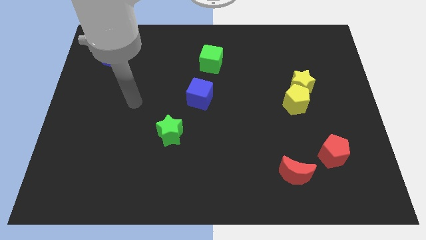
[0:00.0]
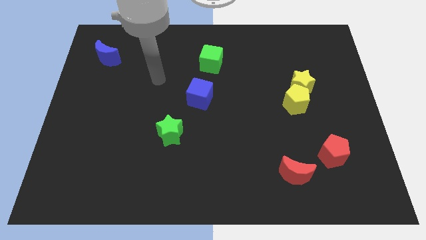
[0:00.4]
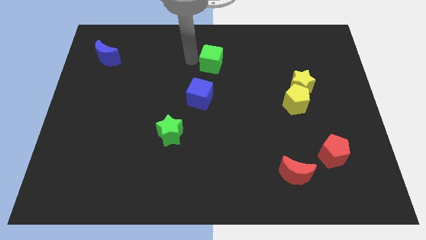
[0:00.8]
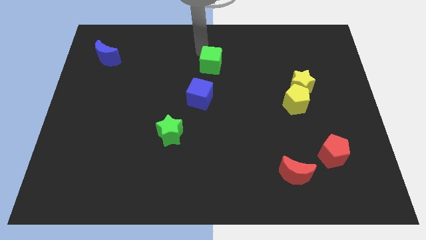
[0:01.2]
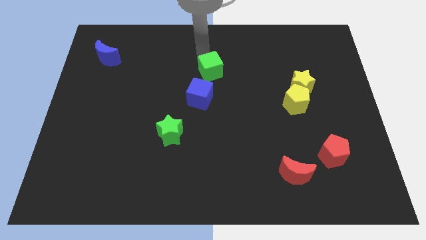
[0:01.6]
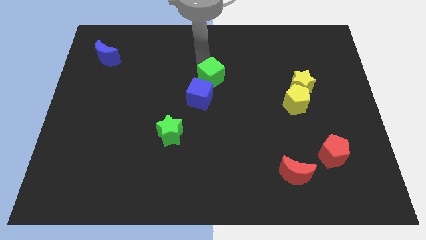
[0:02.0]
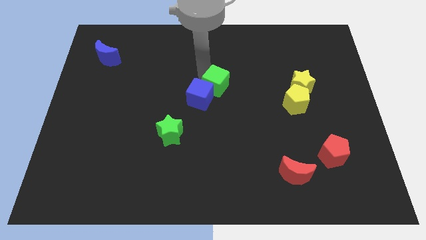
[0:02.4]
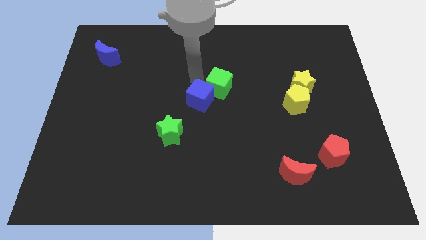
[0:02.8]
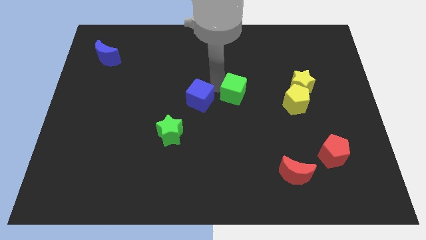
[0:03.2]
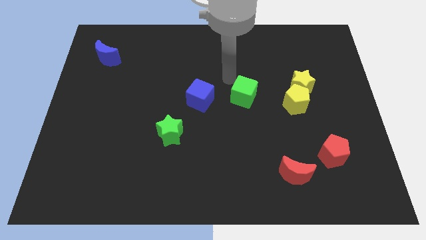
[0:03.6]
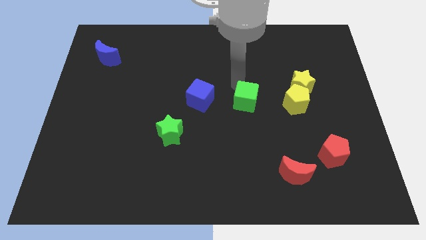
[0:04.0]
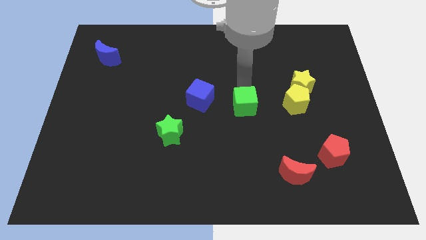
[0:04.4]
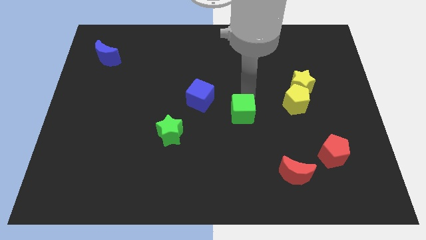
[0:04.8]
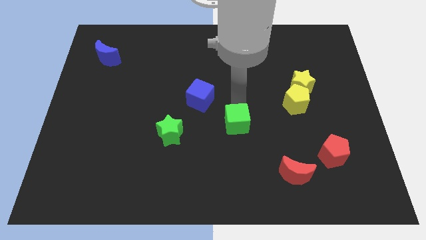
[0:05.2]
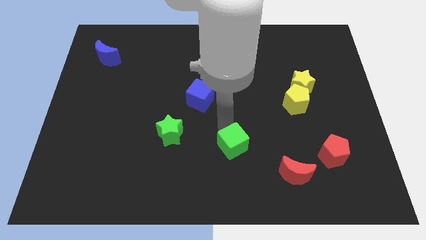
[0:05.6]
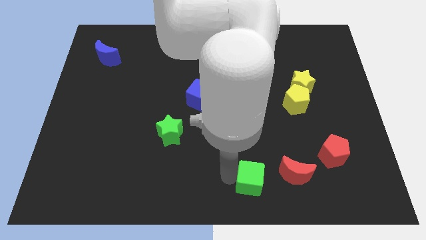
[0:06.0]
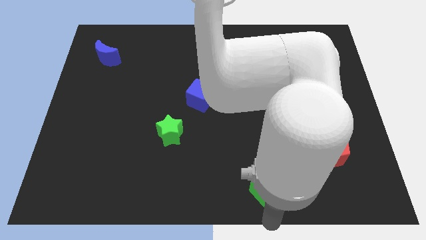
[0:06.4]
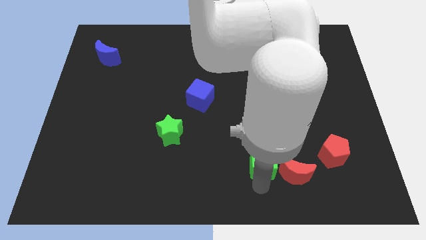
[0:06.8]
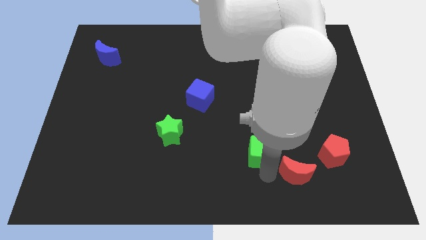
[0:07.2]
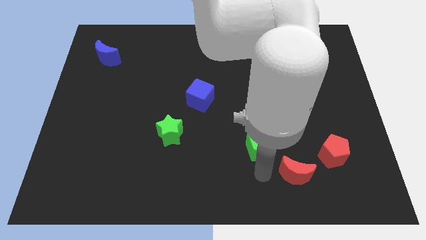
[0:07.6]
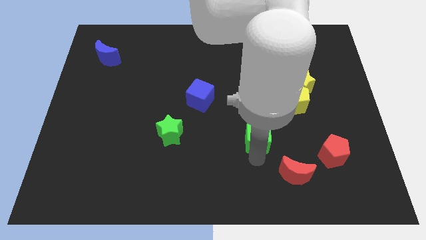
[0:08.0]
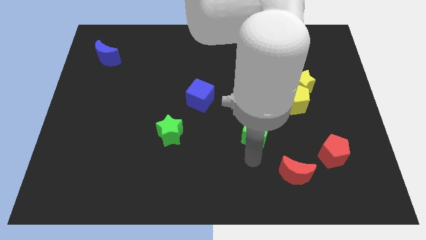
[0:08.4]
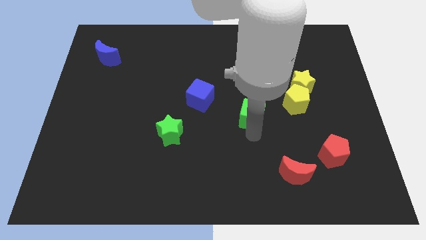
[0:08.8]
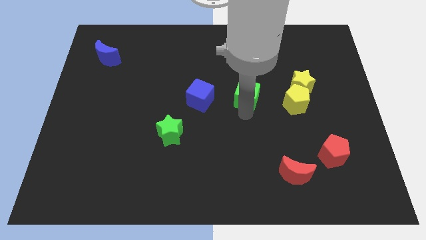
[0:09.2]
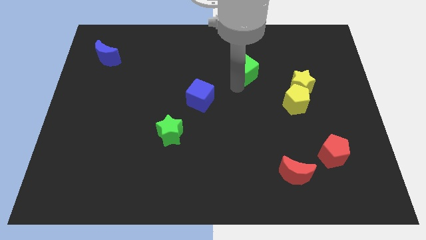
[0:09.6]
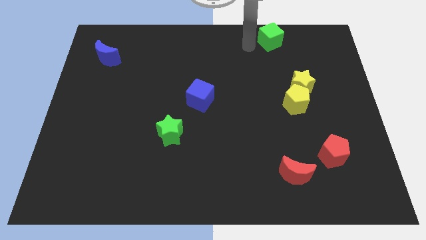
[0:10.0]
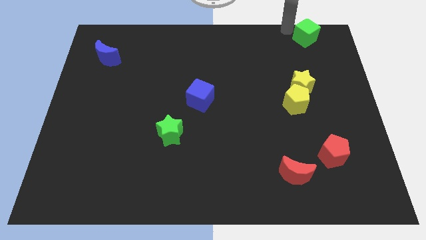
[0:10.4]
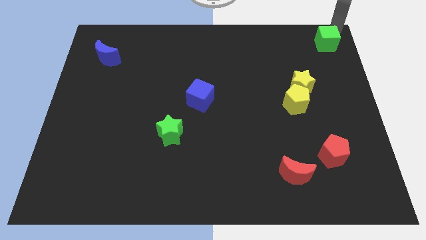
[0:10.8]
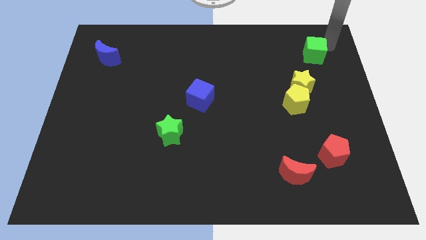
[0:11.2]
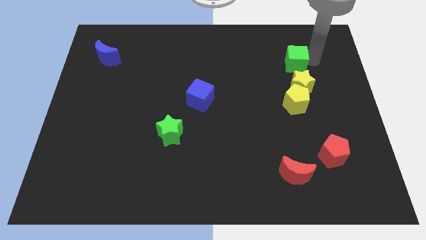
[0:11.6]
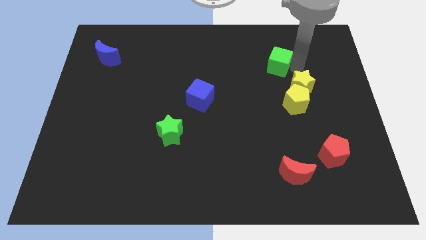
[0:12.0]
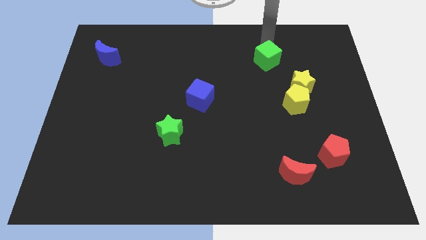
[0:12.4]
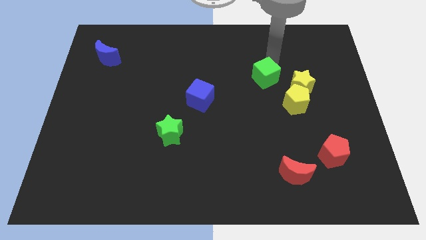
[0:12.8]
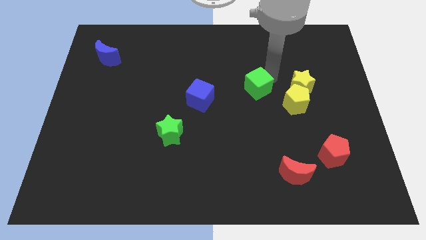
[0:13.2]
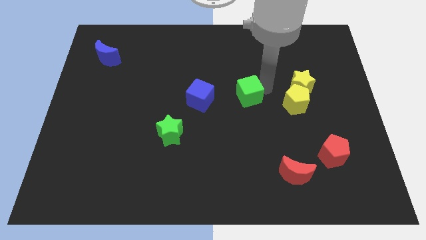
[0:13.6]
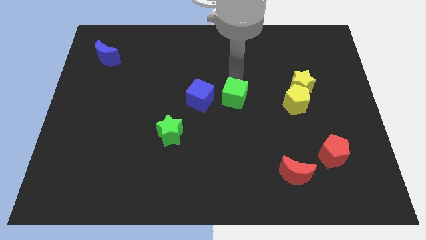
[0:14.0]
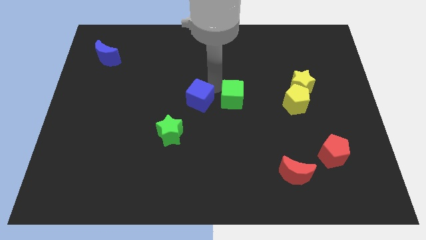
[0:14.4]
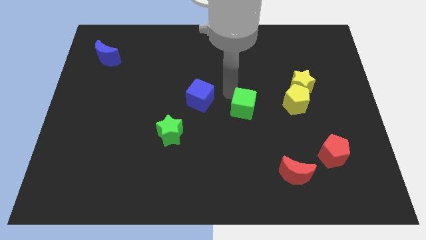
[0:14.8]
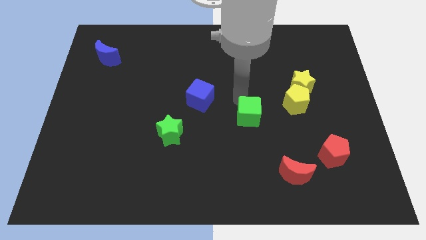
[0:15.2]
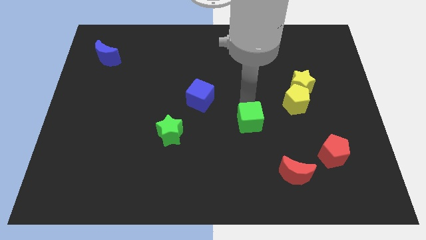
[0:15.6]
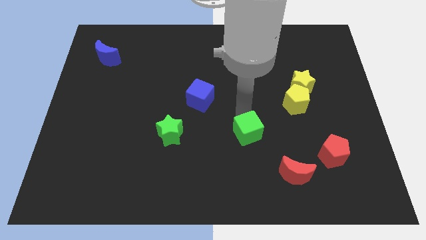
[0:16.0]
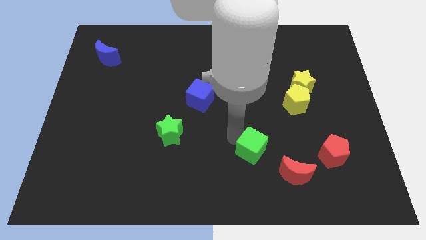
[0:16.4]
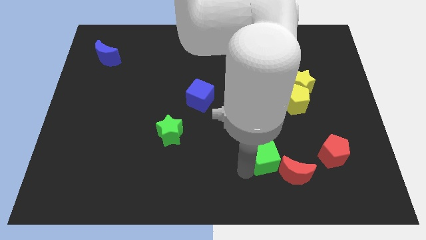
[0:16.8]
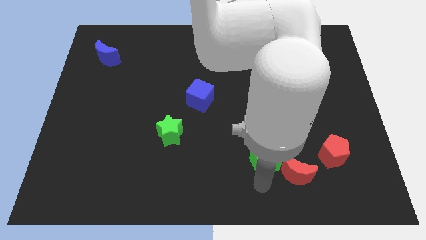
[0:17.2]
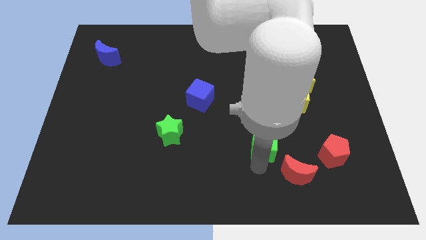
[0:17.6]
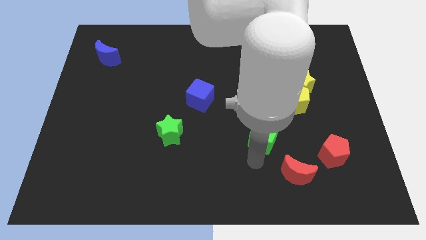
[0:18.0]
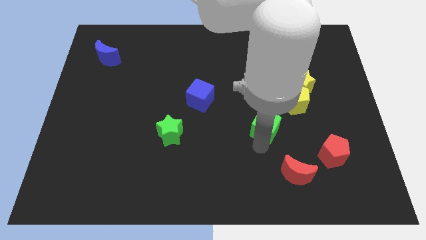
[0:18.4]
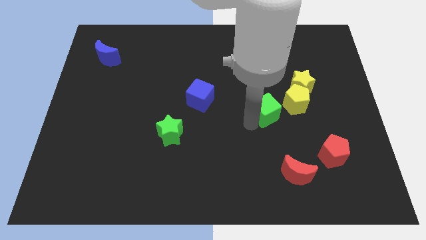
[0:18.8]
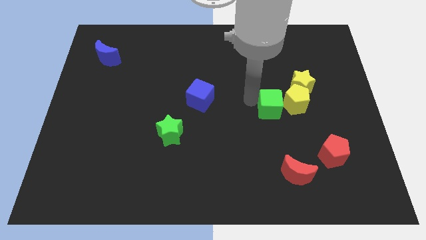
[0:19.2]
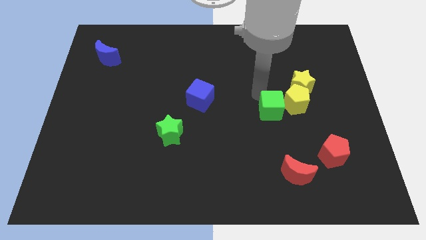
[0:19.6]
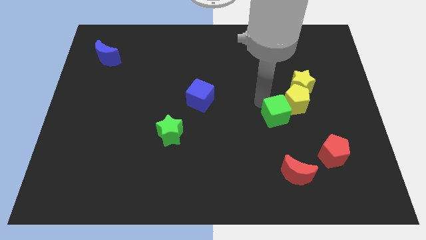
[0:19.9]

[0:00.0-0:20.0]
move the green cube to the top side of the red moon

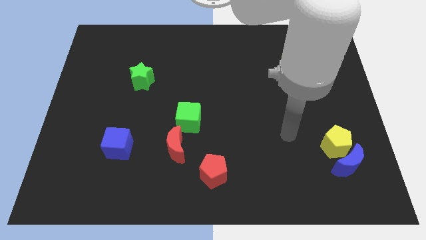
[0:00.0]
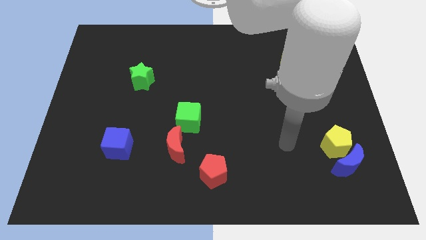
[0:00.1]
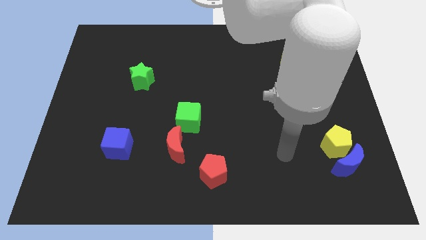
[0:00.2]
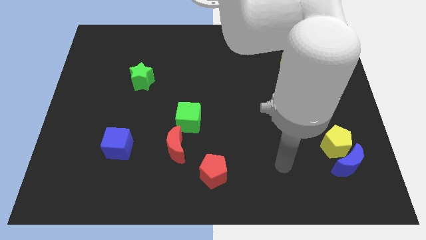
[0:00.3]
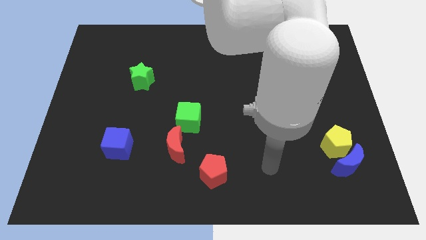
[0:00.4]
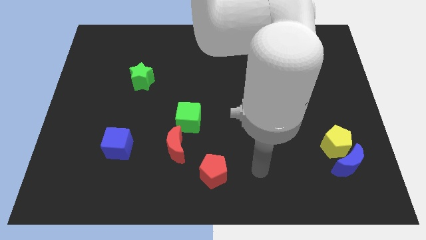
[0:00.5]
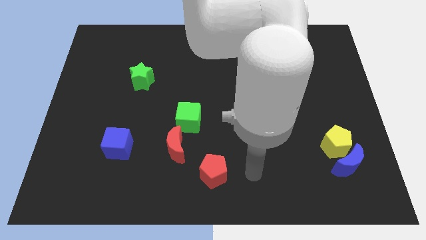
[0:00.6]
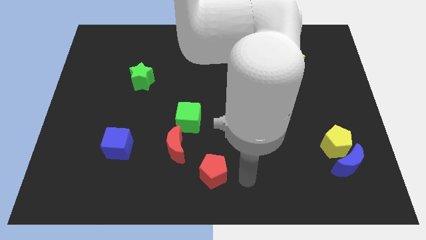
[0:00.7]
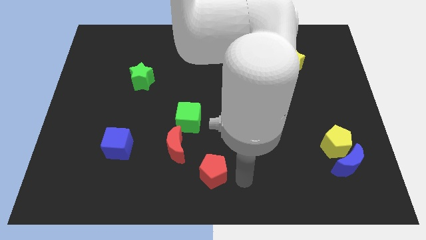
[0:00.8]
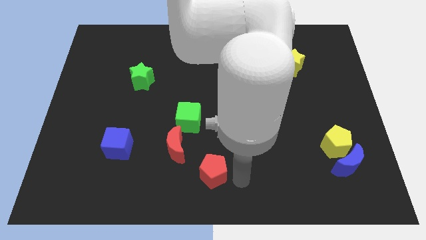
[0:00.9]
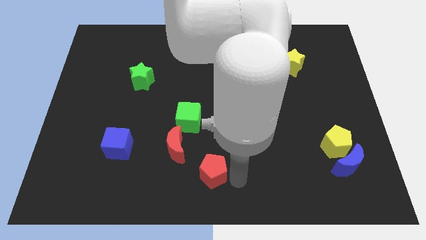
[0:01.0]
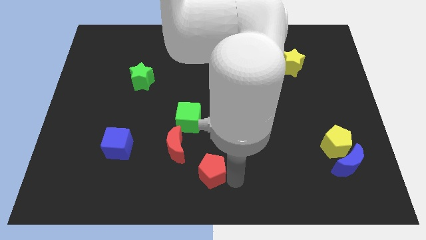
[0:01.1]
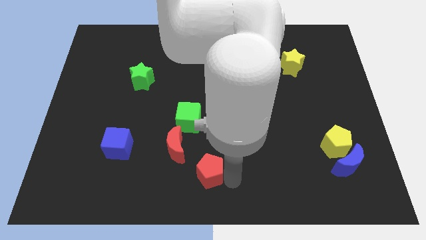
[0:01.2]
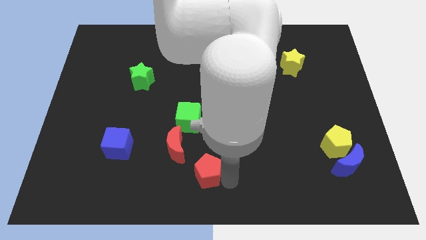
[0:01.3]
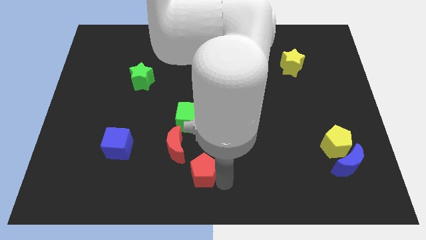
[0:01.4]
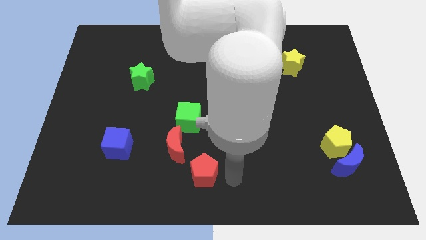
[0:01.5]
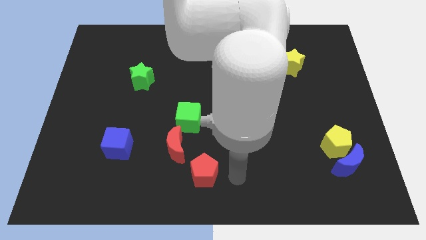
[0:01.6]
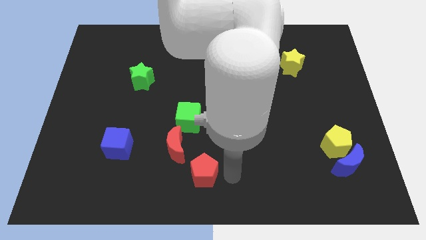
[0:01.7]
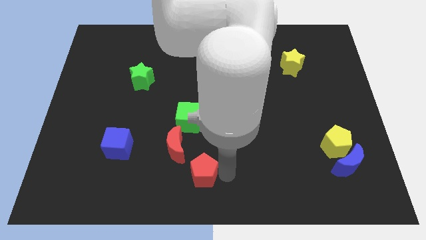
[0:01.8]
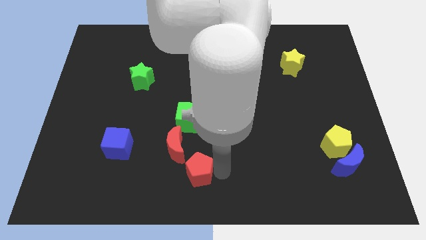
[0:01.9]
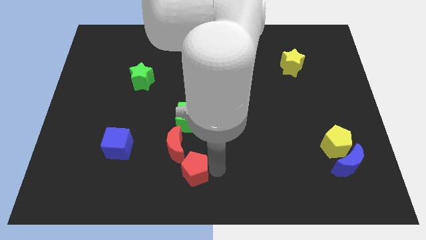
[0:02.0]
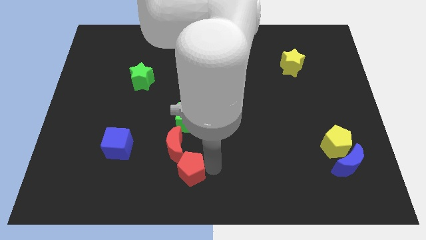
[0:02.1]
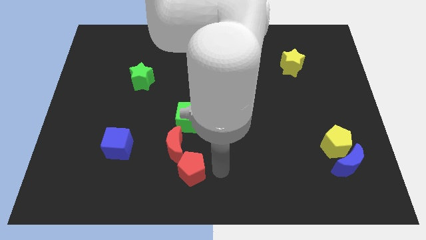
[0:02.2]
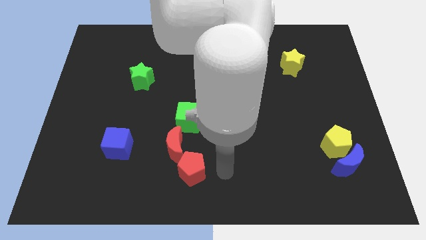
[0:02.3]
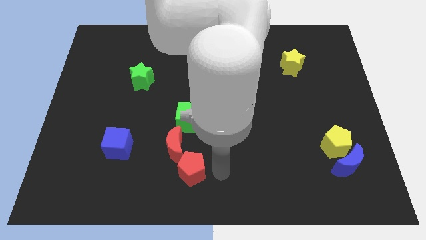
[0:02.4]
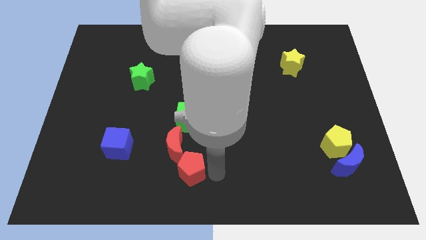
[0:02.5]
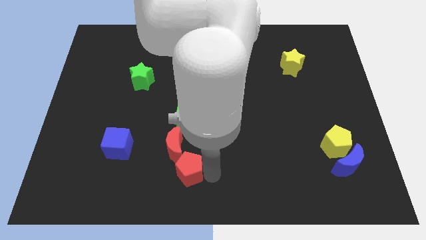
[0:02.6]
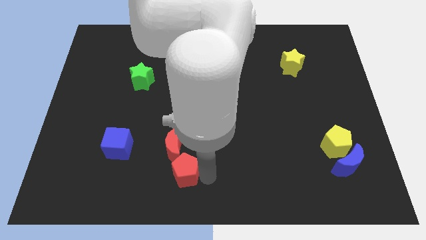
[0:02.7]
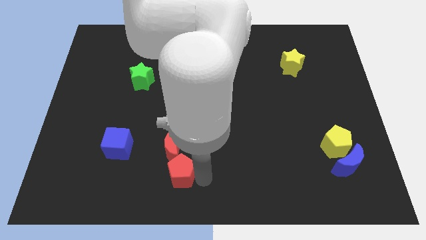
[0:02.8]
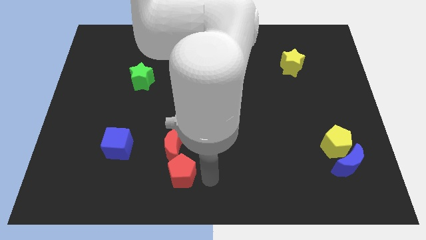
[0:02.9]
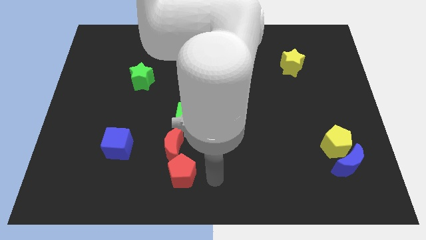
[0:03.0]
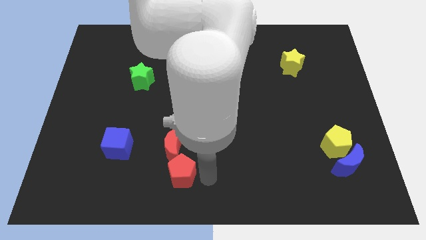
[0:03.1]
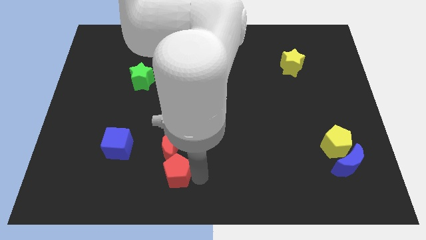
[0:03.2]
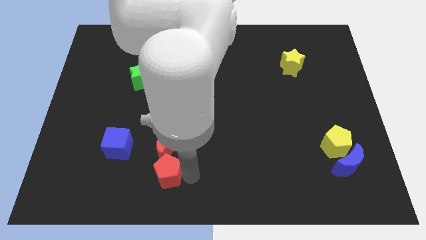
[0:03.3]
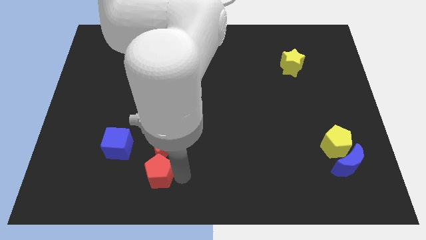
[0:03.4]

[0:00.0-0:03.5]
push the red pentagon diagonally down and to the left of the red moon
